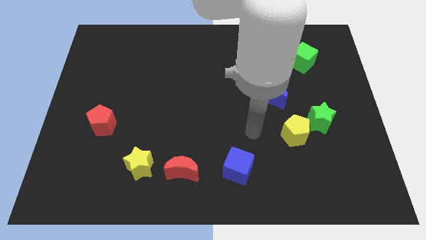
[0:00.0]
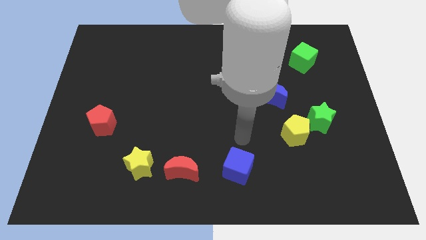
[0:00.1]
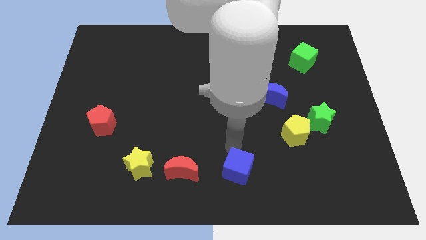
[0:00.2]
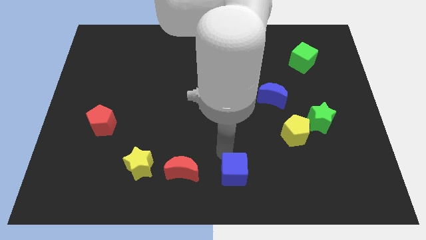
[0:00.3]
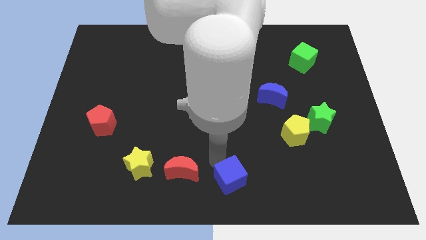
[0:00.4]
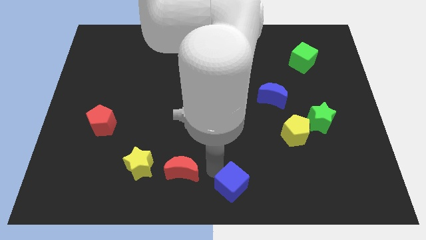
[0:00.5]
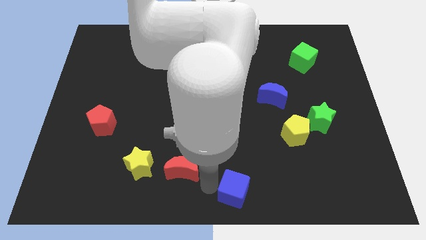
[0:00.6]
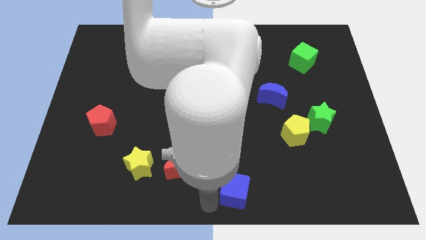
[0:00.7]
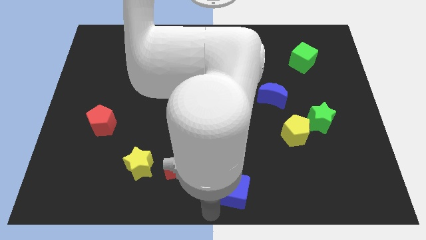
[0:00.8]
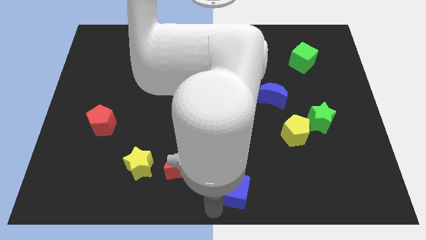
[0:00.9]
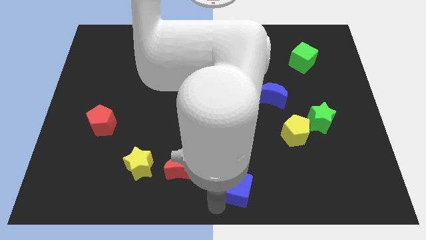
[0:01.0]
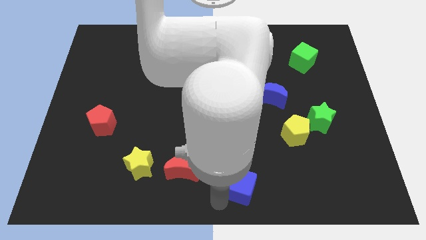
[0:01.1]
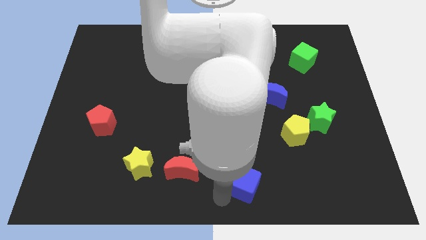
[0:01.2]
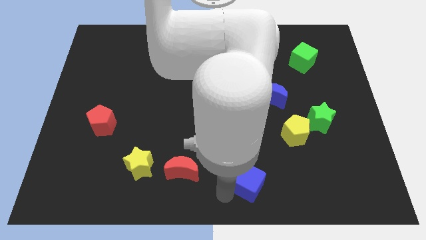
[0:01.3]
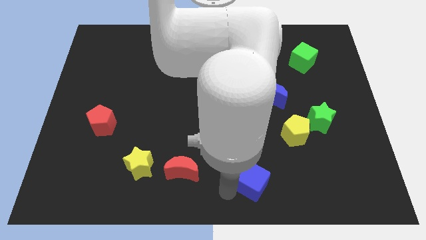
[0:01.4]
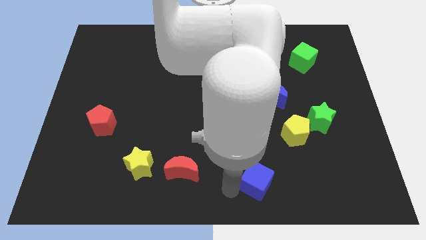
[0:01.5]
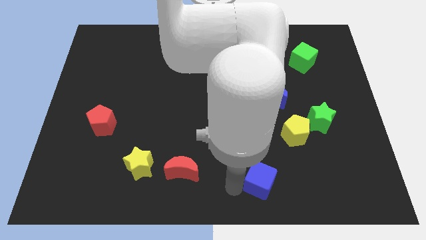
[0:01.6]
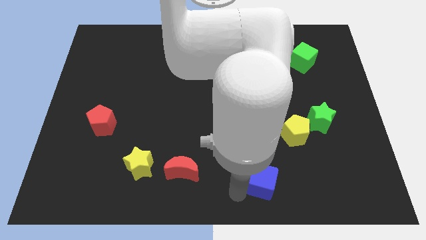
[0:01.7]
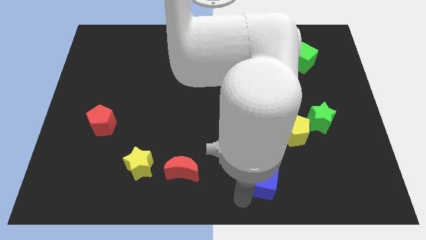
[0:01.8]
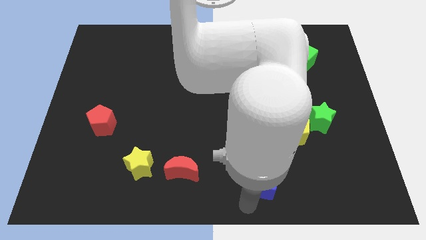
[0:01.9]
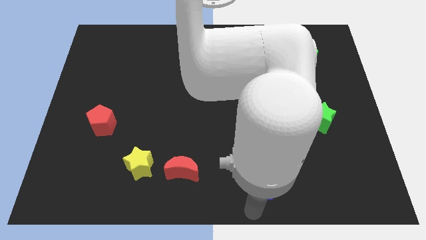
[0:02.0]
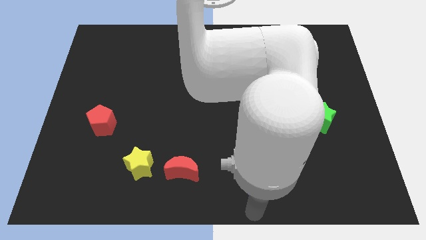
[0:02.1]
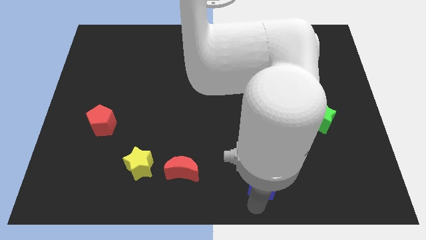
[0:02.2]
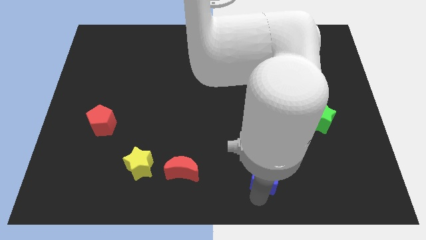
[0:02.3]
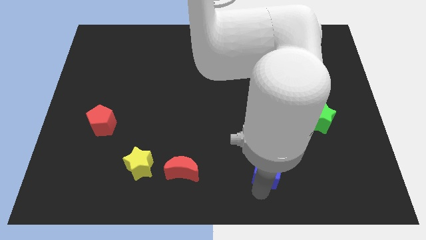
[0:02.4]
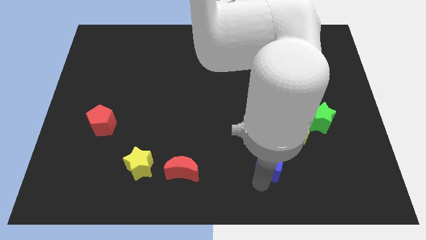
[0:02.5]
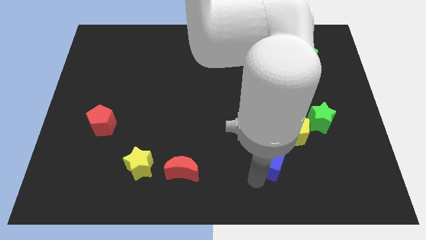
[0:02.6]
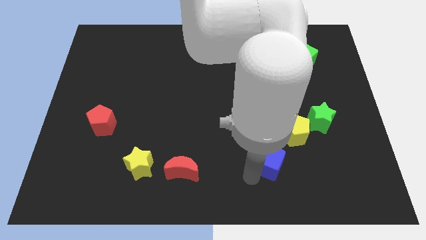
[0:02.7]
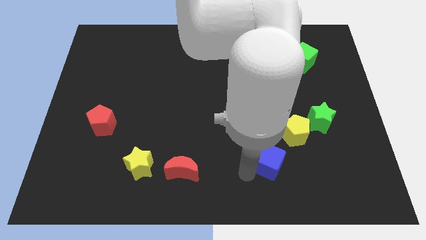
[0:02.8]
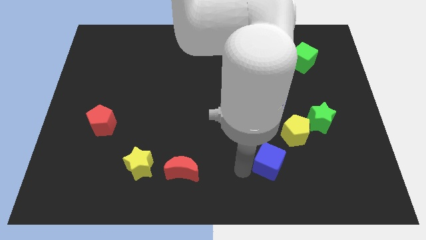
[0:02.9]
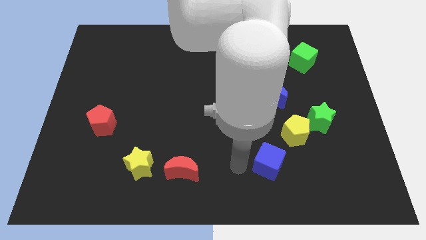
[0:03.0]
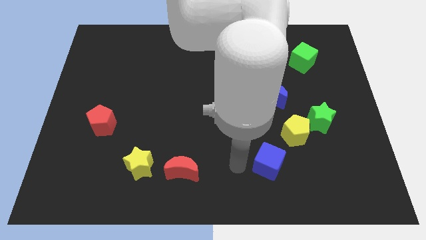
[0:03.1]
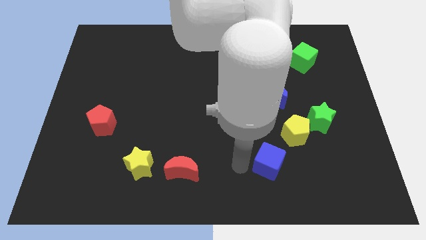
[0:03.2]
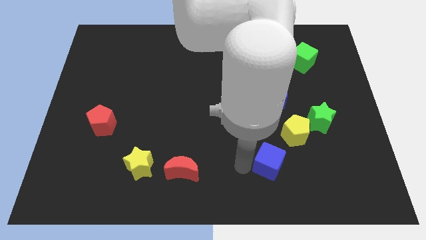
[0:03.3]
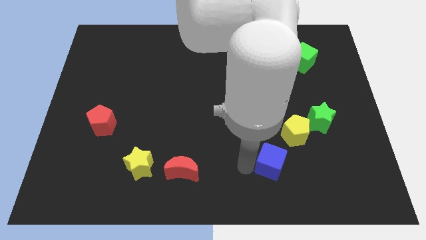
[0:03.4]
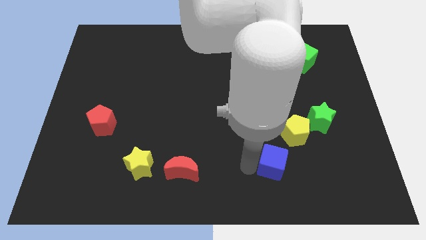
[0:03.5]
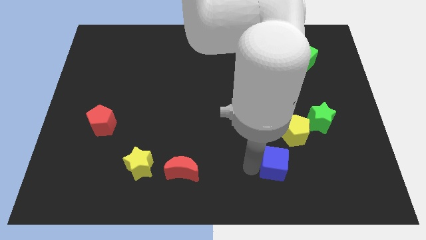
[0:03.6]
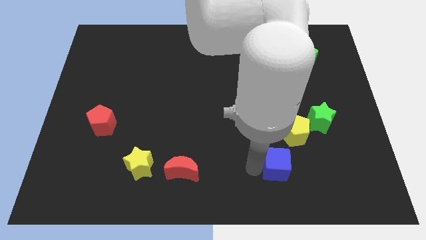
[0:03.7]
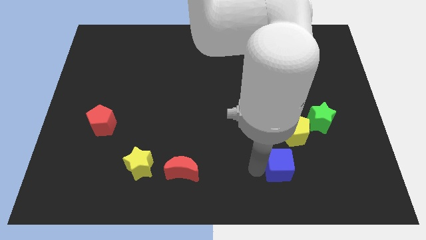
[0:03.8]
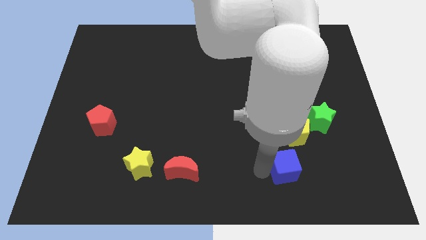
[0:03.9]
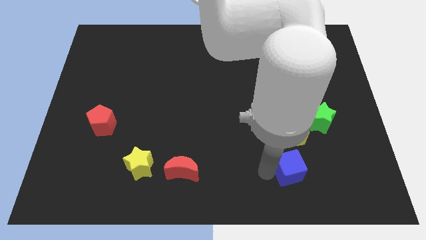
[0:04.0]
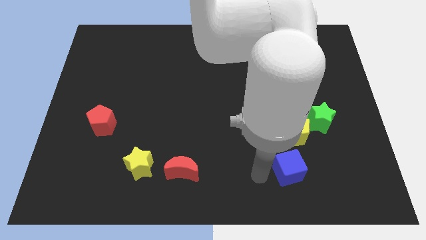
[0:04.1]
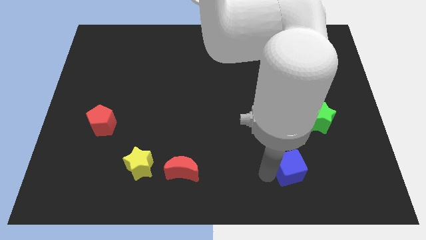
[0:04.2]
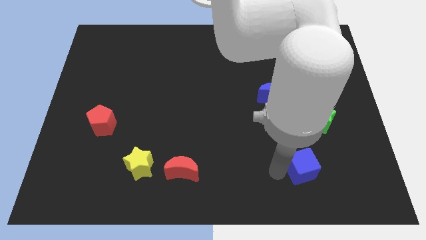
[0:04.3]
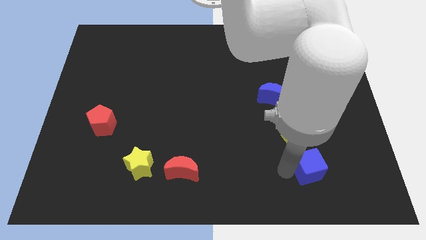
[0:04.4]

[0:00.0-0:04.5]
move the blue cube to the bottom of the green star

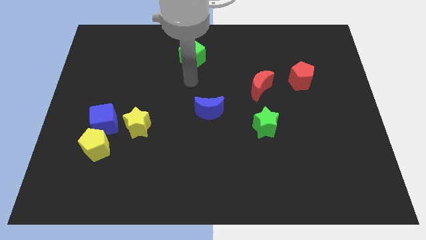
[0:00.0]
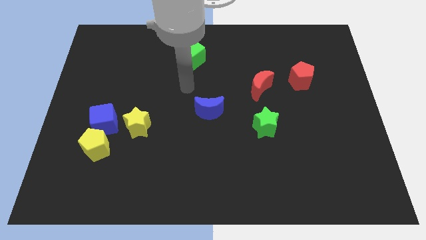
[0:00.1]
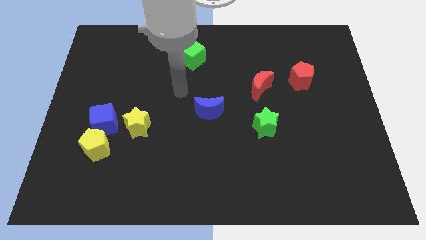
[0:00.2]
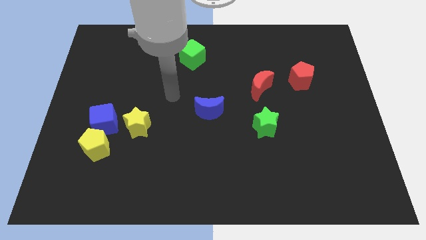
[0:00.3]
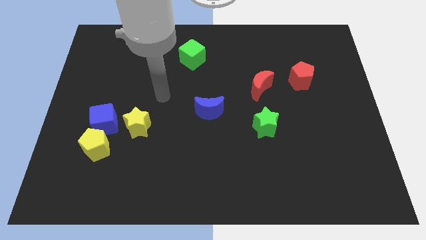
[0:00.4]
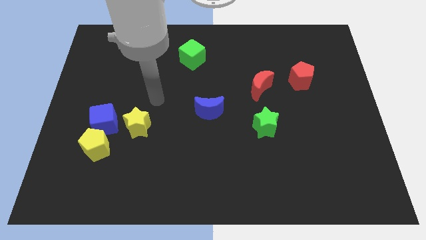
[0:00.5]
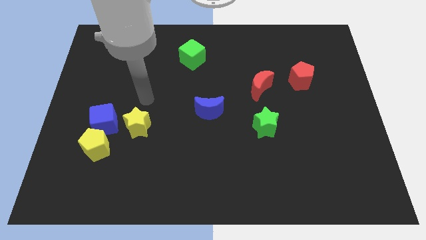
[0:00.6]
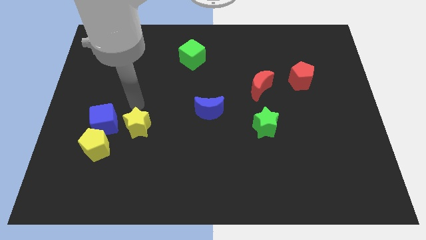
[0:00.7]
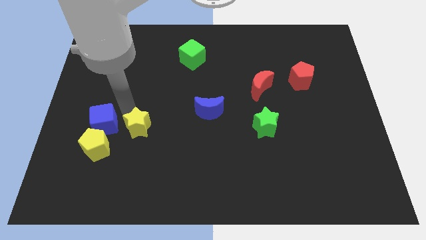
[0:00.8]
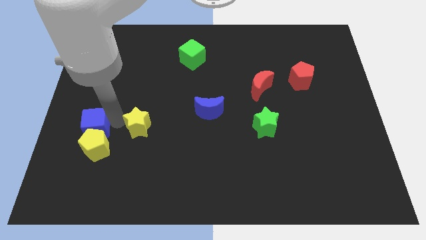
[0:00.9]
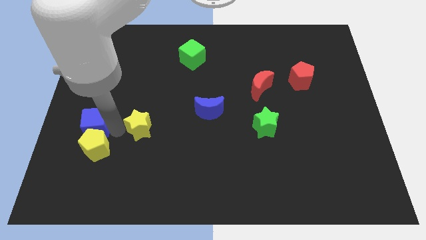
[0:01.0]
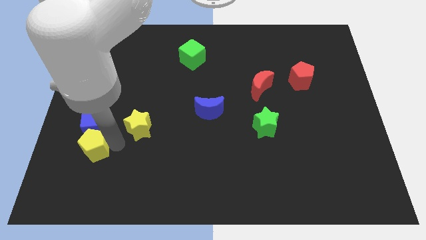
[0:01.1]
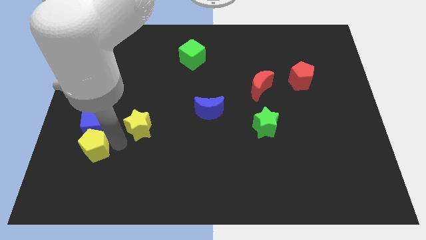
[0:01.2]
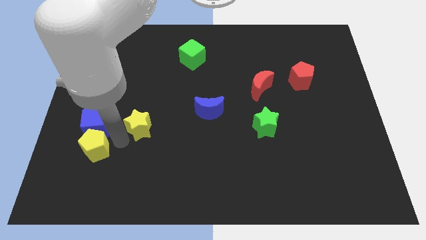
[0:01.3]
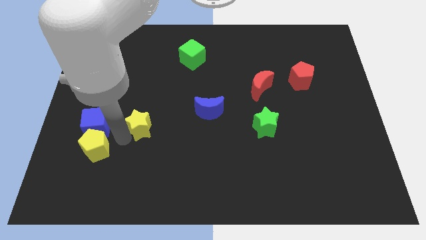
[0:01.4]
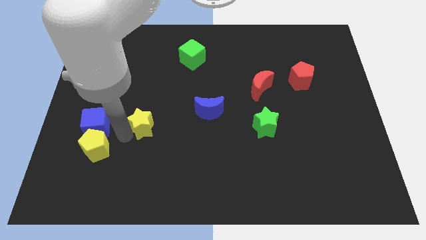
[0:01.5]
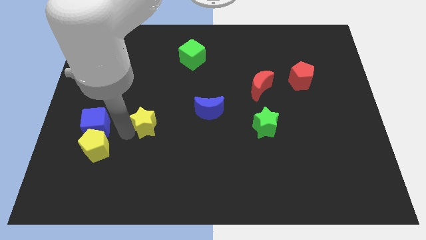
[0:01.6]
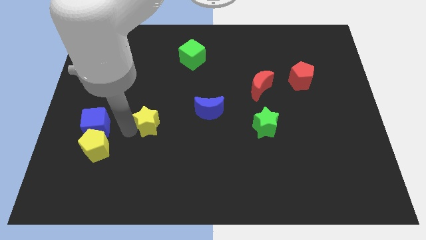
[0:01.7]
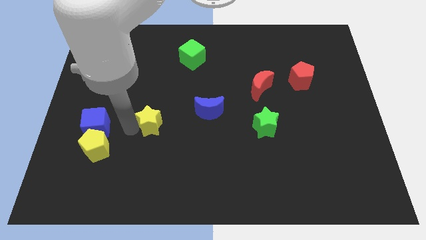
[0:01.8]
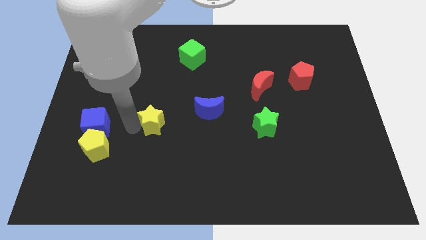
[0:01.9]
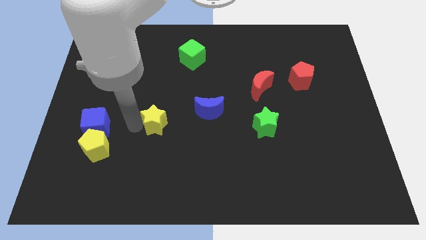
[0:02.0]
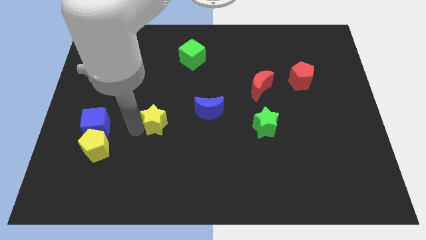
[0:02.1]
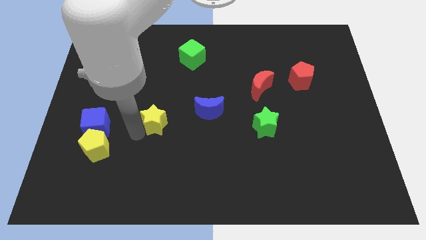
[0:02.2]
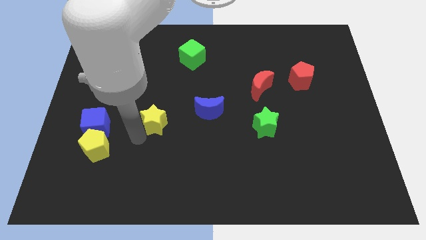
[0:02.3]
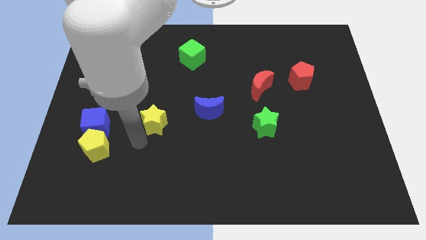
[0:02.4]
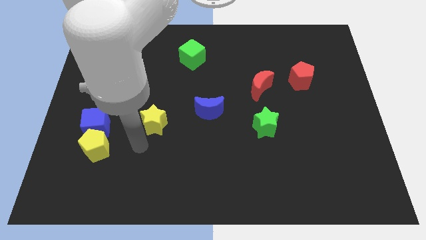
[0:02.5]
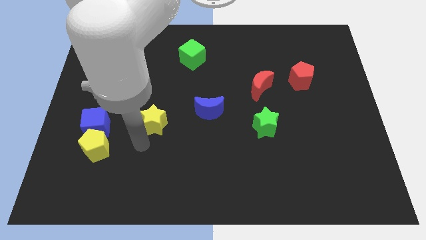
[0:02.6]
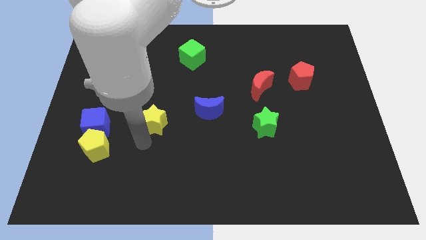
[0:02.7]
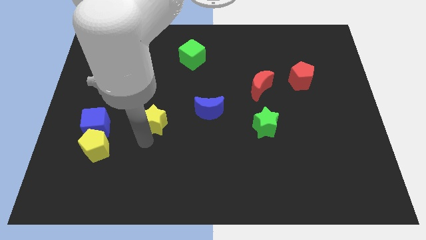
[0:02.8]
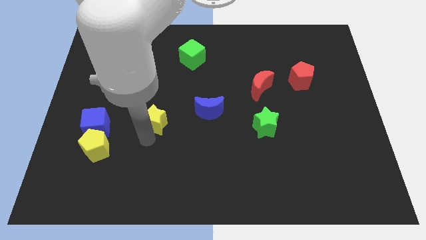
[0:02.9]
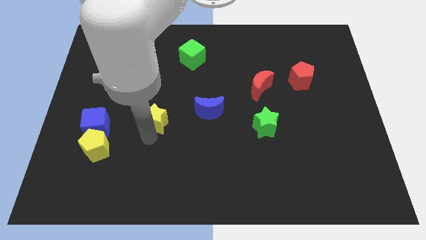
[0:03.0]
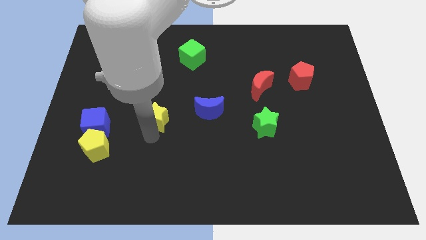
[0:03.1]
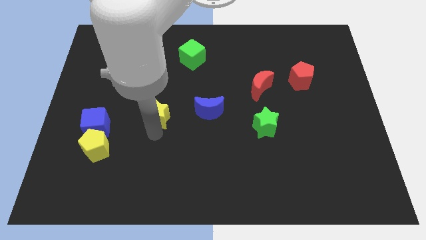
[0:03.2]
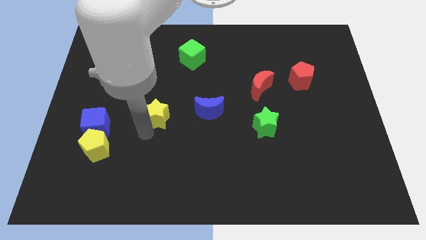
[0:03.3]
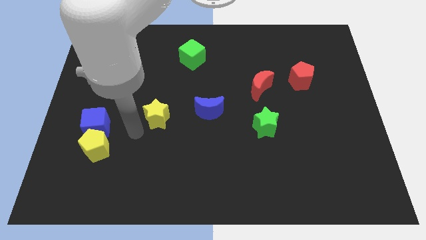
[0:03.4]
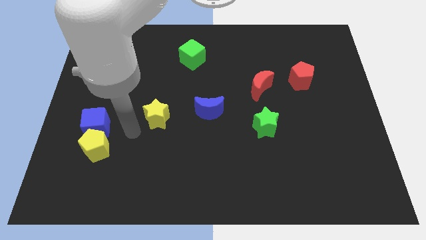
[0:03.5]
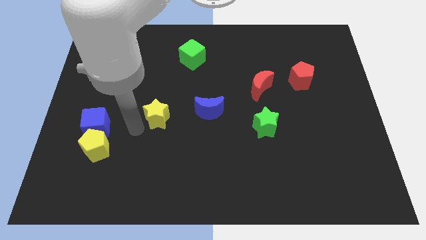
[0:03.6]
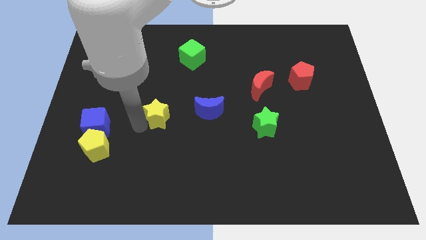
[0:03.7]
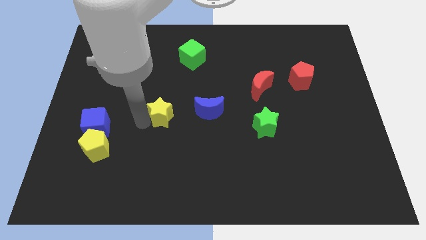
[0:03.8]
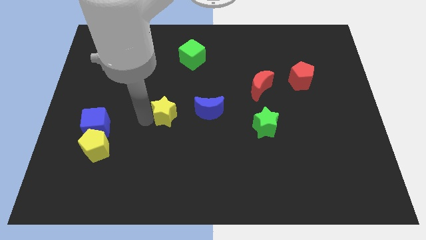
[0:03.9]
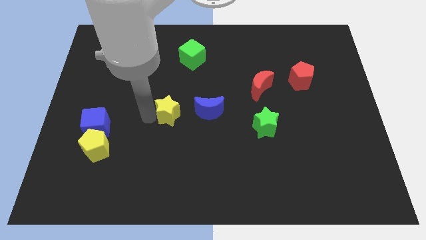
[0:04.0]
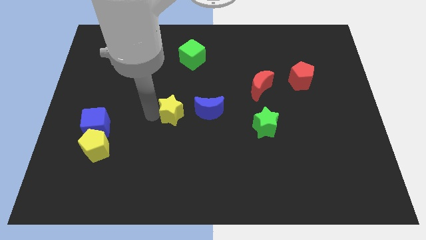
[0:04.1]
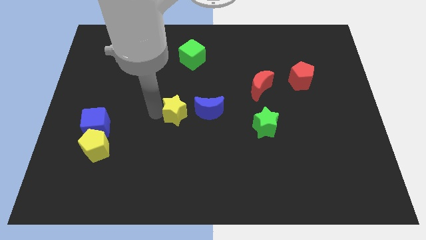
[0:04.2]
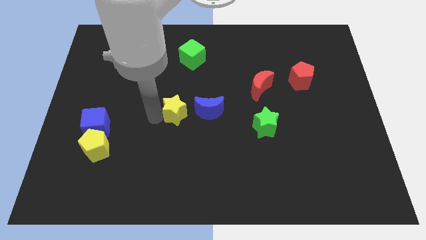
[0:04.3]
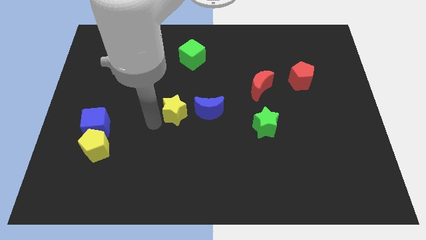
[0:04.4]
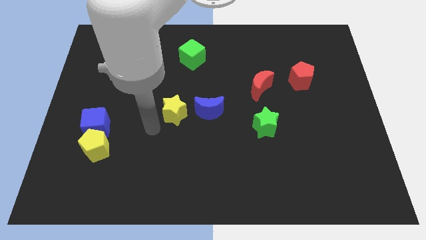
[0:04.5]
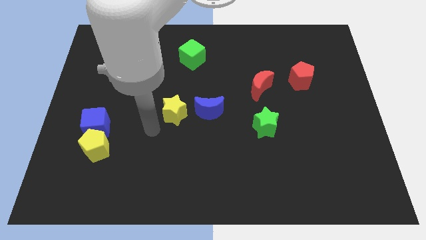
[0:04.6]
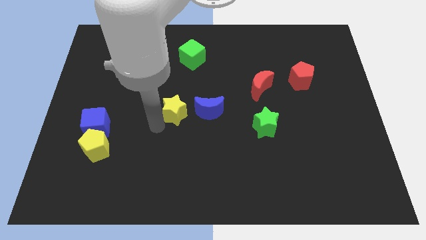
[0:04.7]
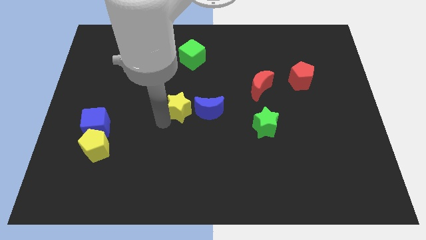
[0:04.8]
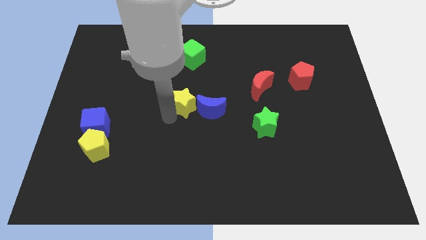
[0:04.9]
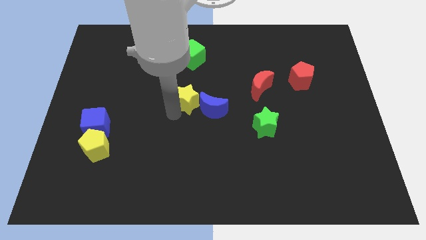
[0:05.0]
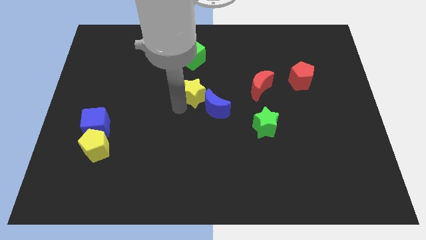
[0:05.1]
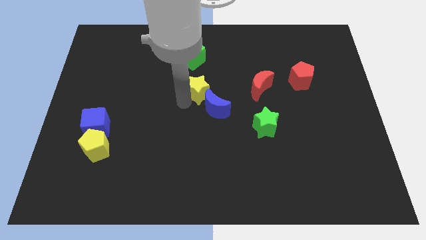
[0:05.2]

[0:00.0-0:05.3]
slide the yellow star to the left of the red moon
